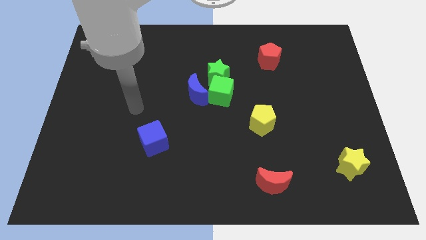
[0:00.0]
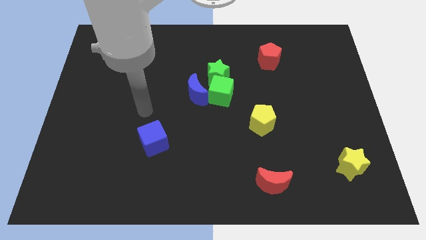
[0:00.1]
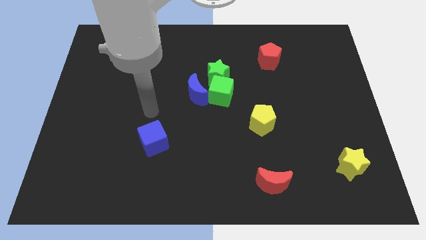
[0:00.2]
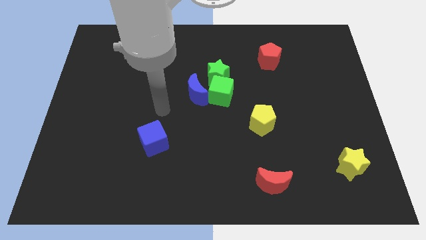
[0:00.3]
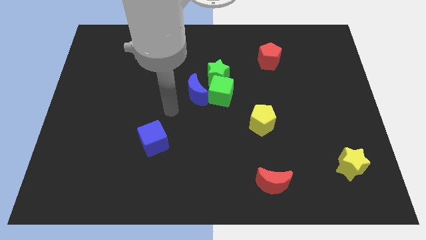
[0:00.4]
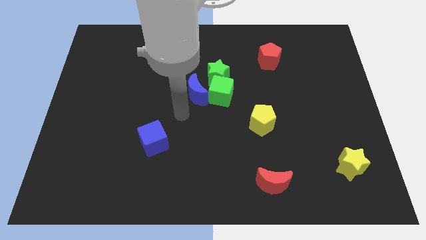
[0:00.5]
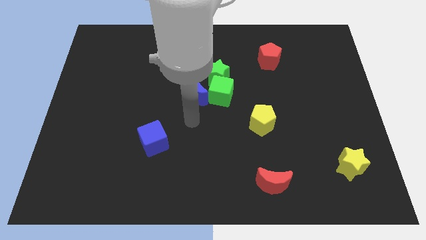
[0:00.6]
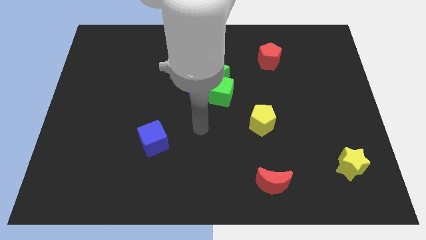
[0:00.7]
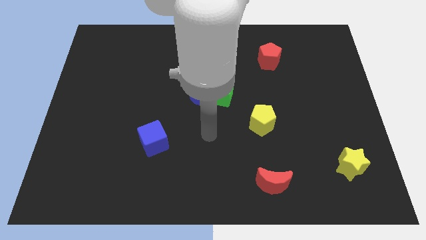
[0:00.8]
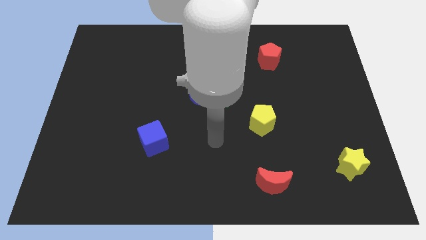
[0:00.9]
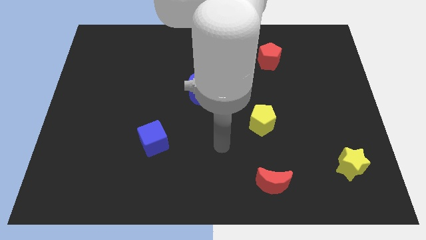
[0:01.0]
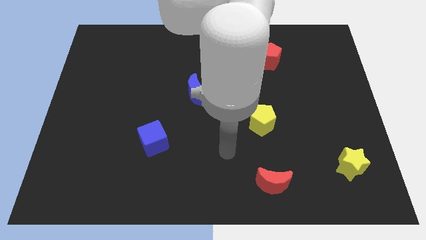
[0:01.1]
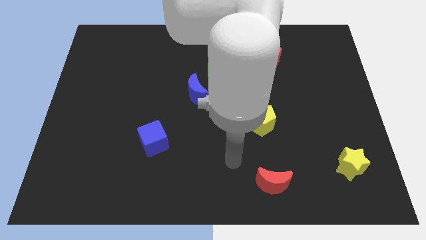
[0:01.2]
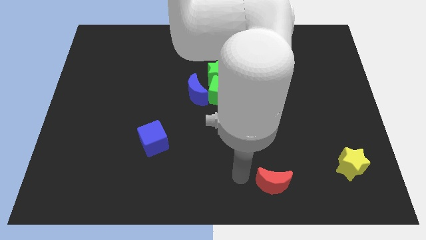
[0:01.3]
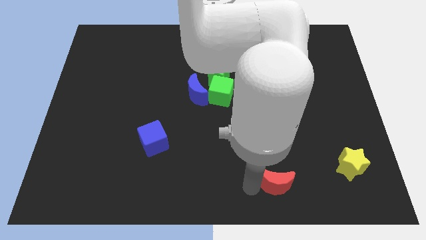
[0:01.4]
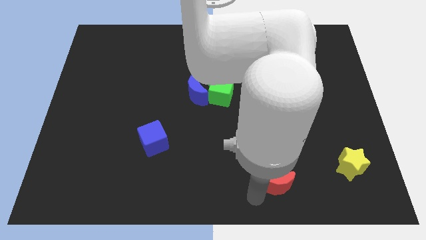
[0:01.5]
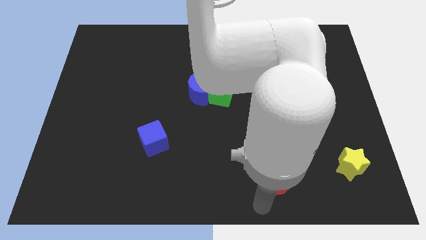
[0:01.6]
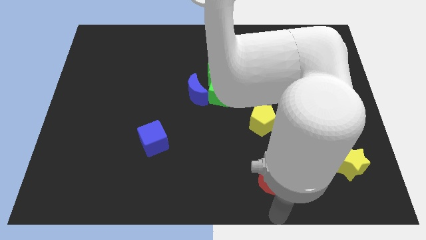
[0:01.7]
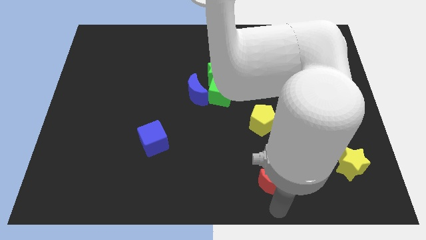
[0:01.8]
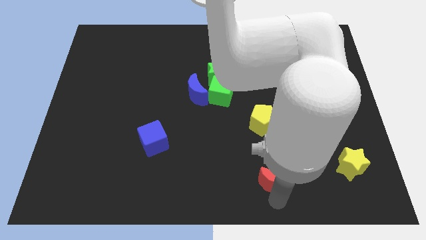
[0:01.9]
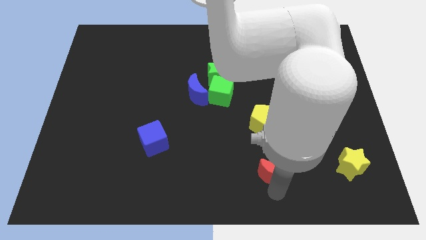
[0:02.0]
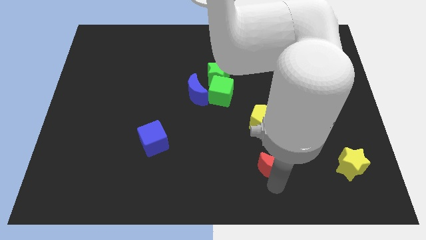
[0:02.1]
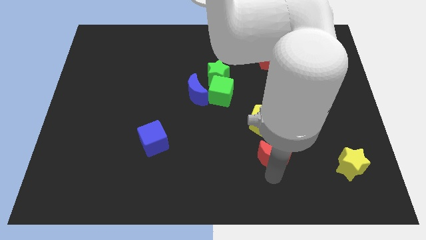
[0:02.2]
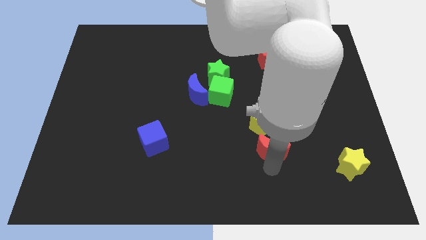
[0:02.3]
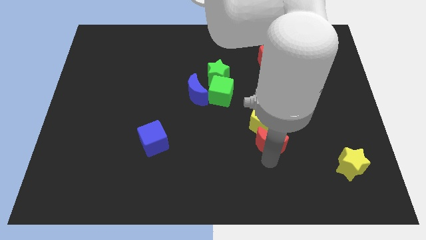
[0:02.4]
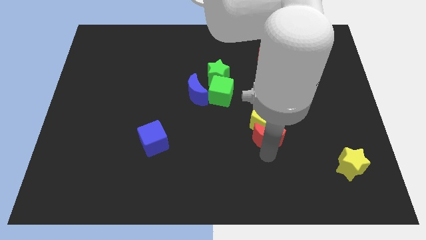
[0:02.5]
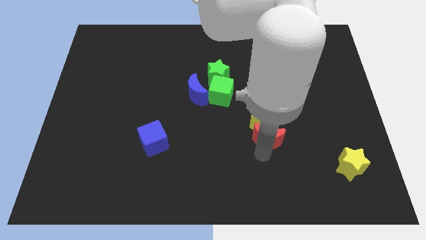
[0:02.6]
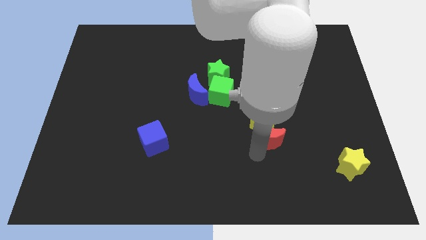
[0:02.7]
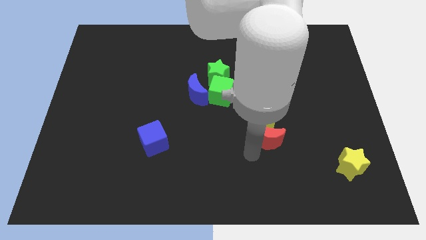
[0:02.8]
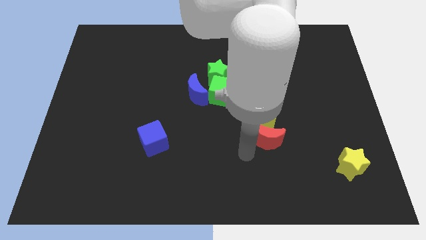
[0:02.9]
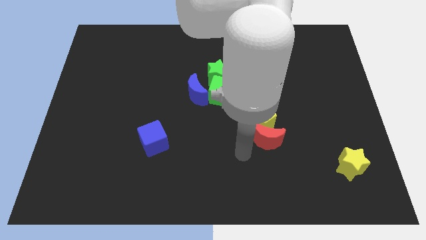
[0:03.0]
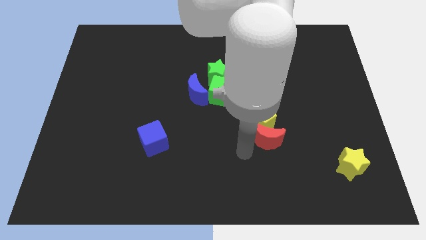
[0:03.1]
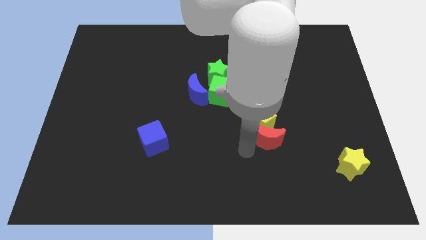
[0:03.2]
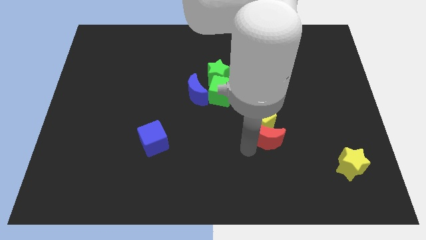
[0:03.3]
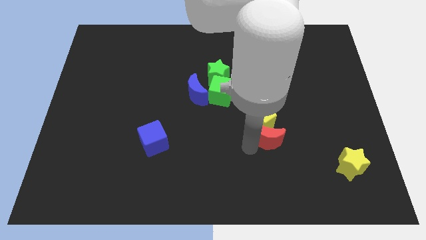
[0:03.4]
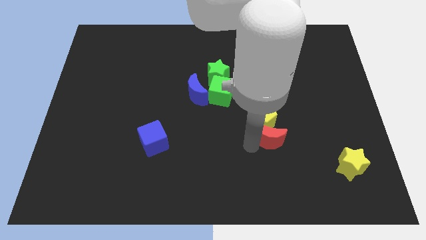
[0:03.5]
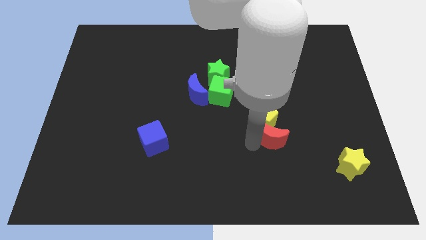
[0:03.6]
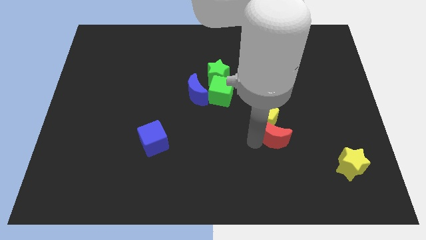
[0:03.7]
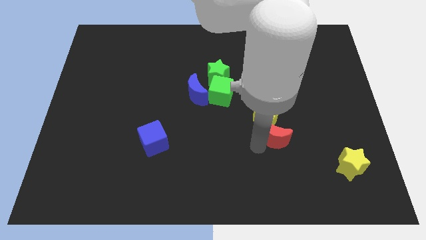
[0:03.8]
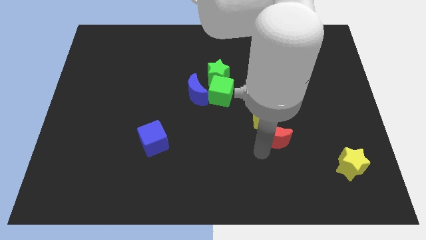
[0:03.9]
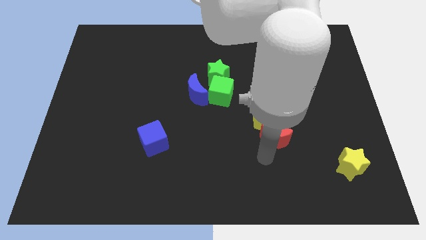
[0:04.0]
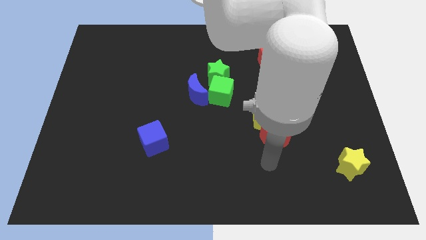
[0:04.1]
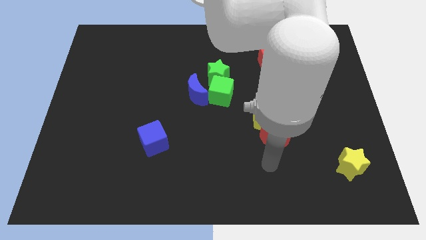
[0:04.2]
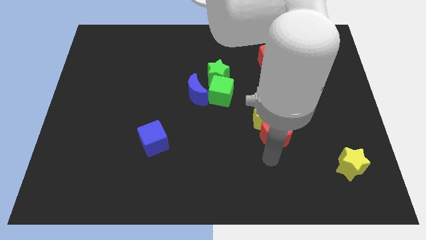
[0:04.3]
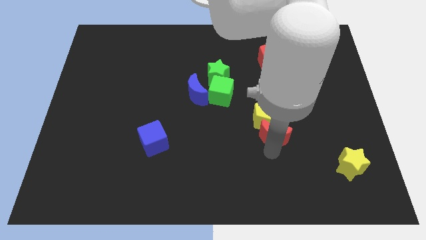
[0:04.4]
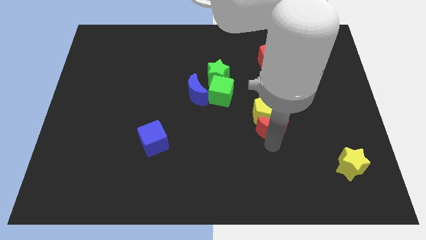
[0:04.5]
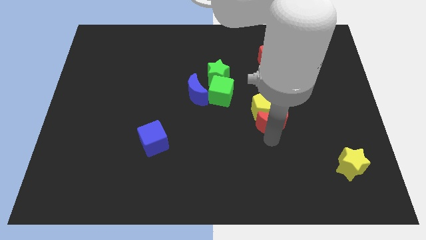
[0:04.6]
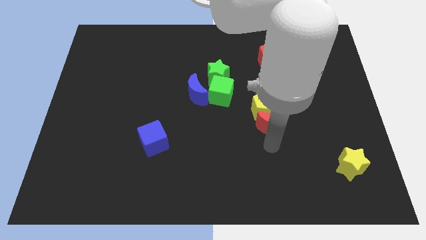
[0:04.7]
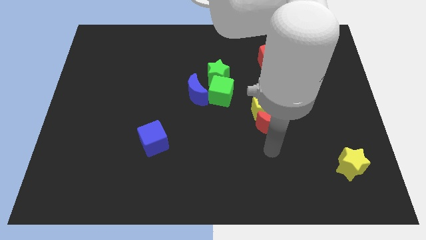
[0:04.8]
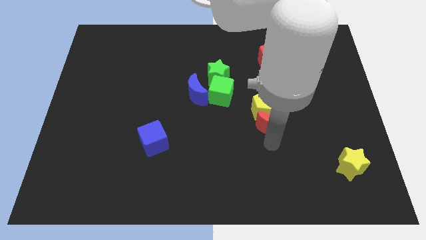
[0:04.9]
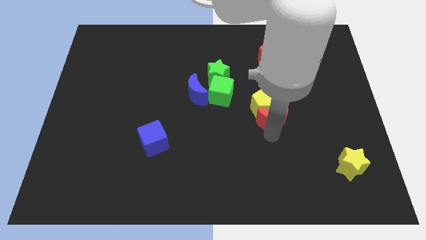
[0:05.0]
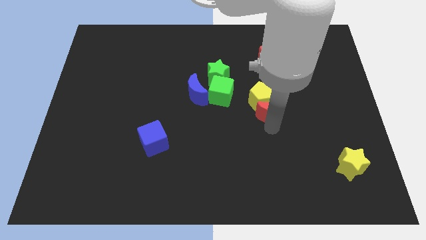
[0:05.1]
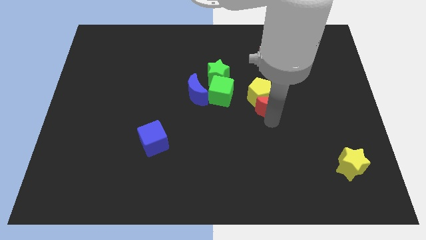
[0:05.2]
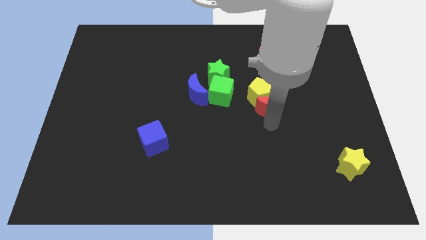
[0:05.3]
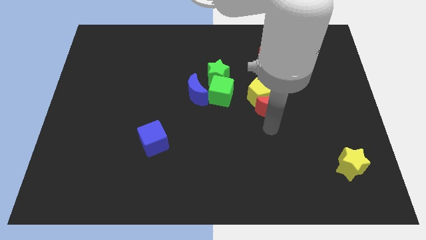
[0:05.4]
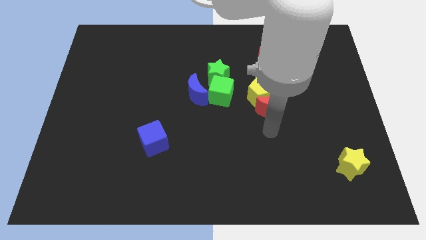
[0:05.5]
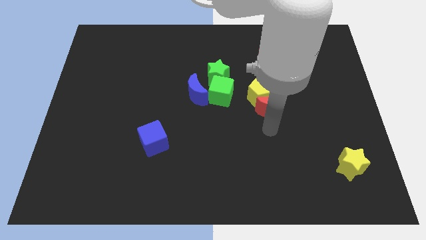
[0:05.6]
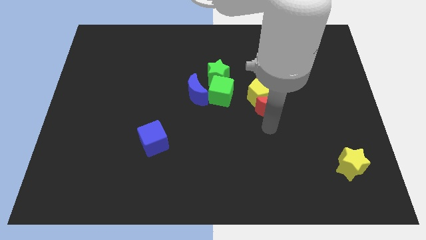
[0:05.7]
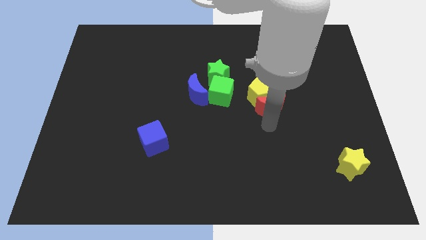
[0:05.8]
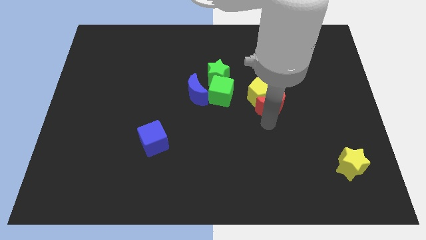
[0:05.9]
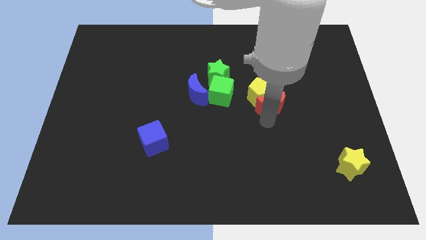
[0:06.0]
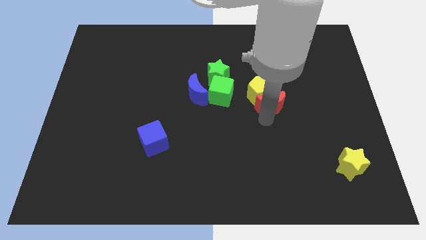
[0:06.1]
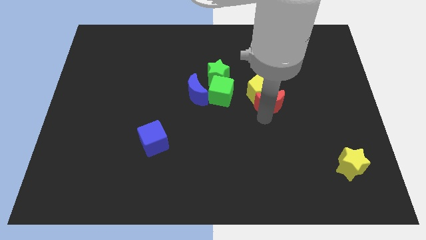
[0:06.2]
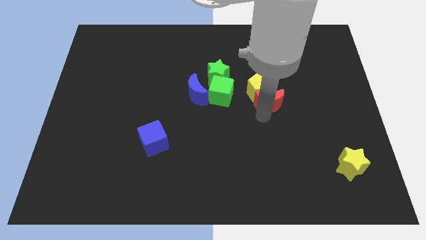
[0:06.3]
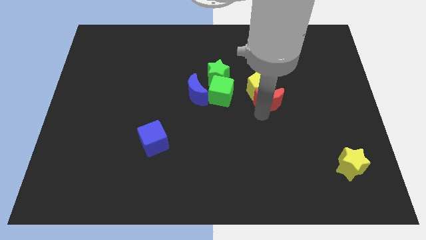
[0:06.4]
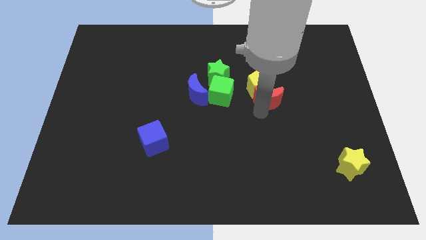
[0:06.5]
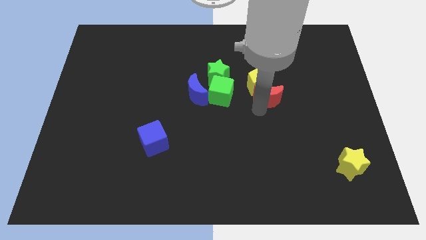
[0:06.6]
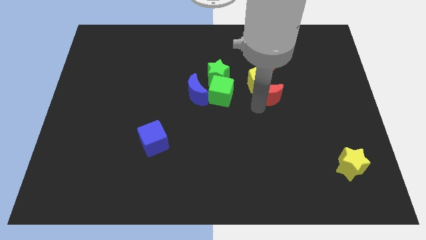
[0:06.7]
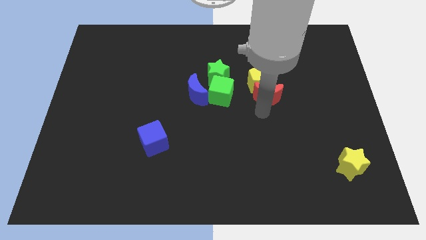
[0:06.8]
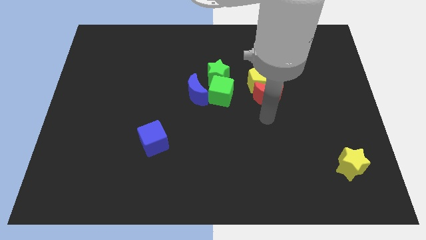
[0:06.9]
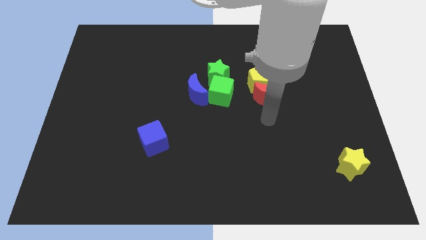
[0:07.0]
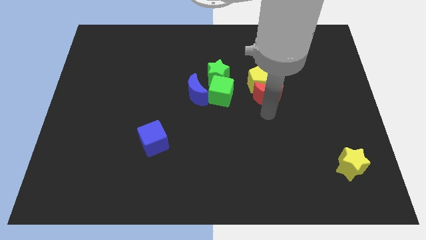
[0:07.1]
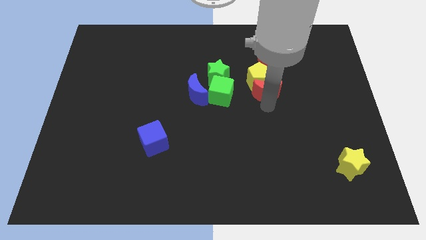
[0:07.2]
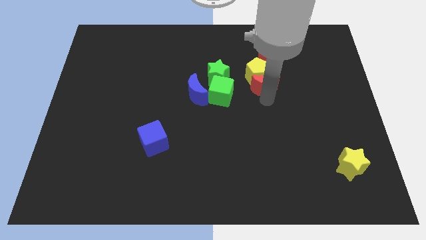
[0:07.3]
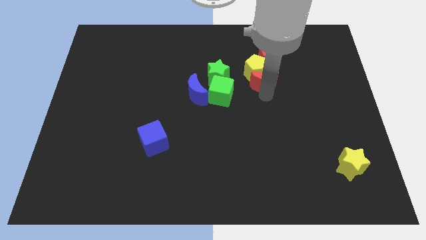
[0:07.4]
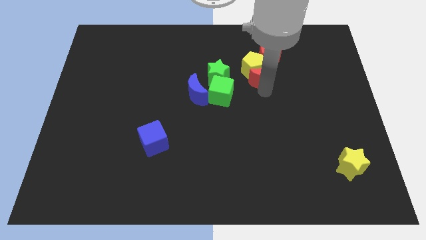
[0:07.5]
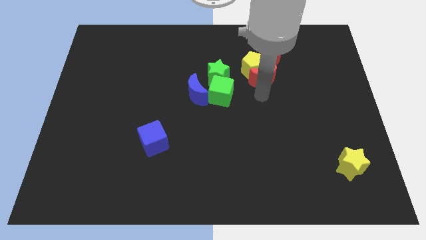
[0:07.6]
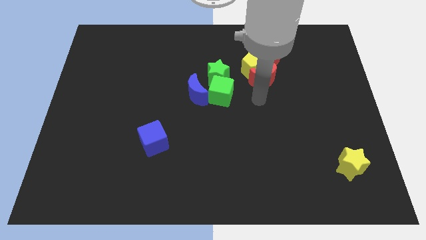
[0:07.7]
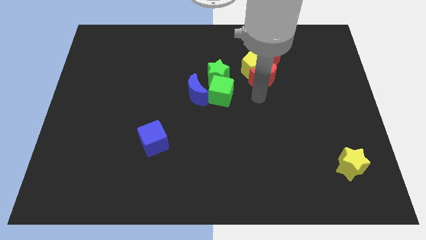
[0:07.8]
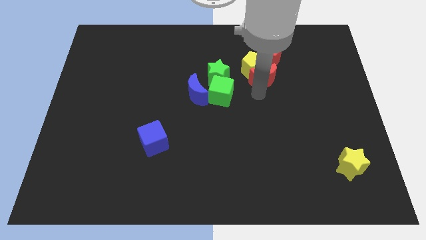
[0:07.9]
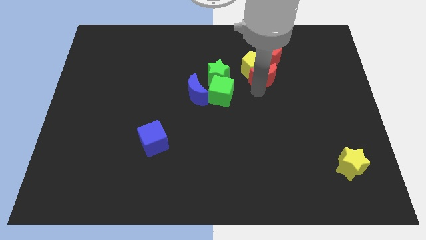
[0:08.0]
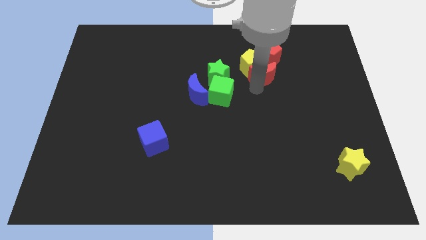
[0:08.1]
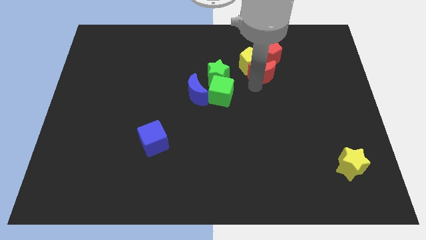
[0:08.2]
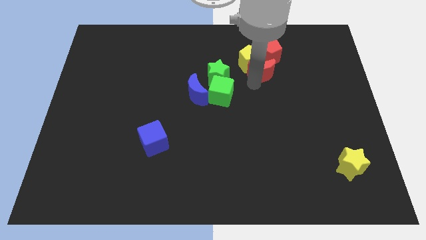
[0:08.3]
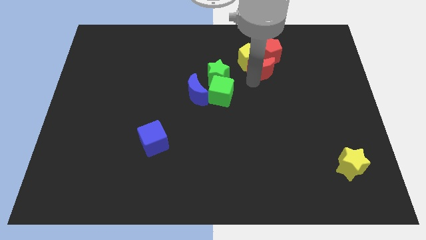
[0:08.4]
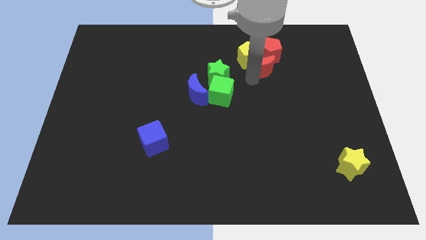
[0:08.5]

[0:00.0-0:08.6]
put the red moon close to the red pentagon
